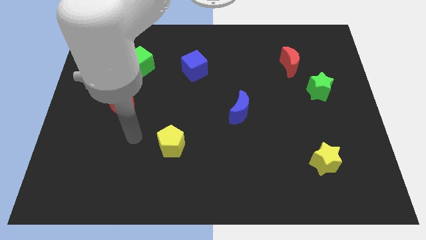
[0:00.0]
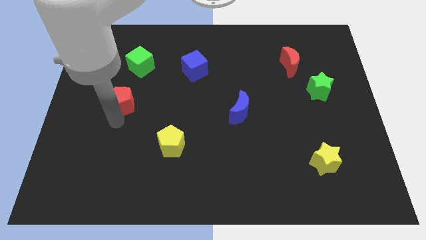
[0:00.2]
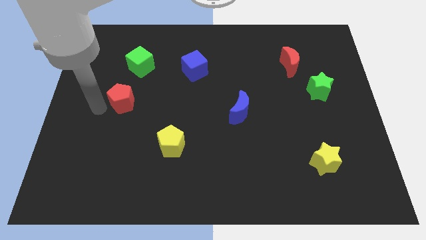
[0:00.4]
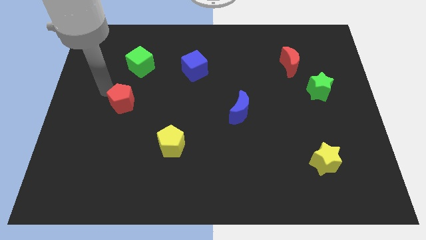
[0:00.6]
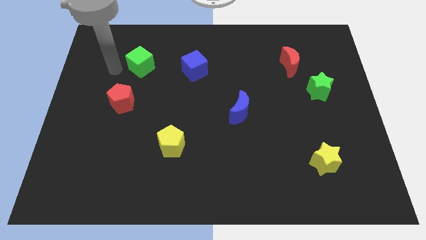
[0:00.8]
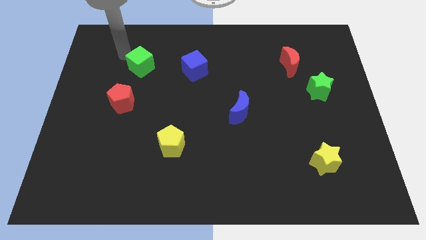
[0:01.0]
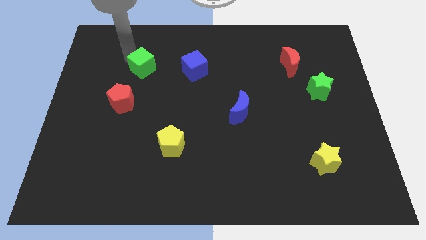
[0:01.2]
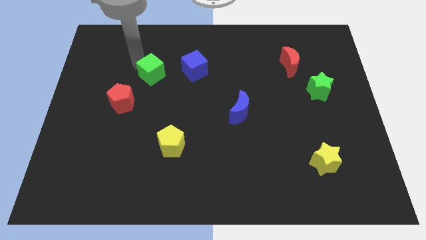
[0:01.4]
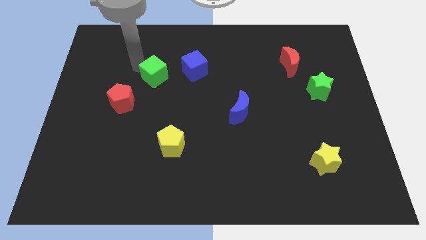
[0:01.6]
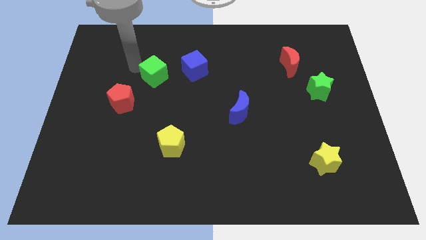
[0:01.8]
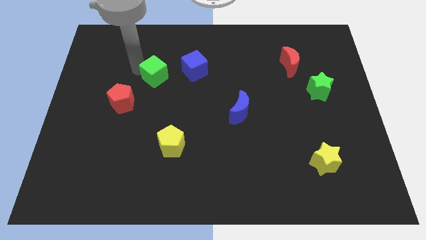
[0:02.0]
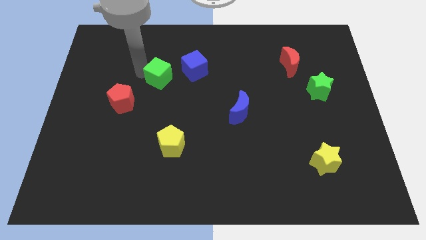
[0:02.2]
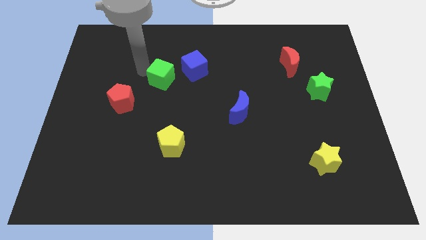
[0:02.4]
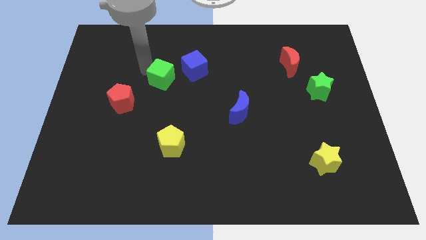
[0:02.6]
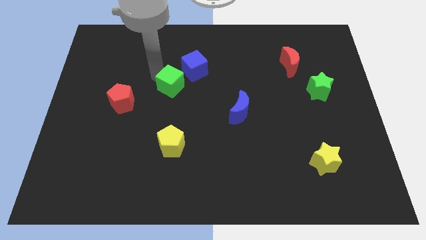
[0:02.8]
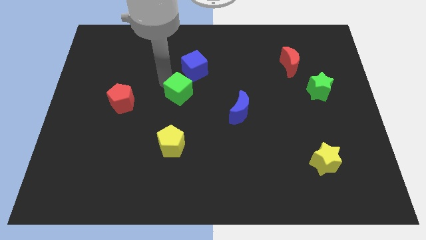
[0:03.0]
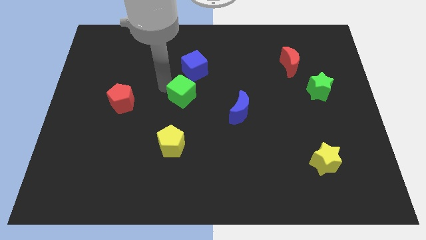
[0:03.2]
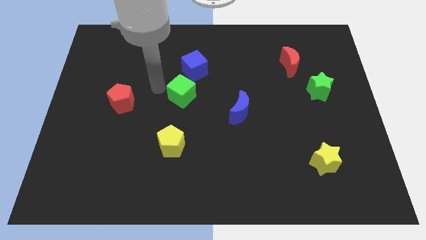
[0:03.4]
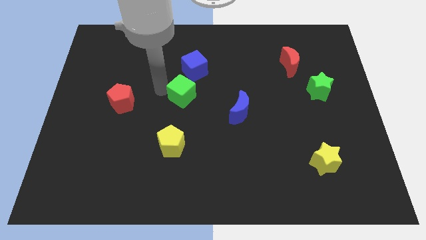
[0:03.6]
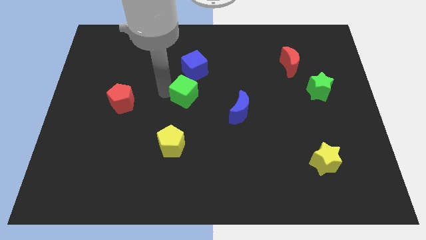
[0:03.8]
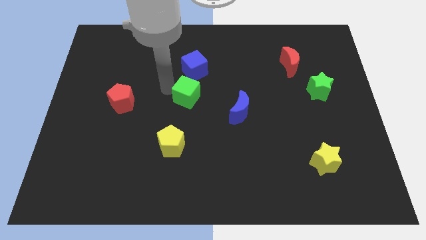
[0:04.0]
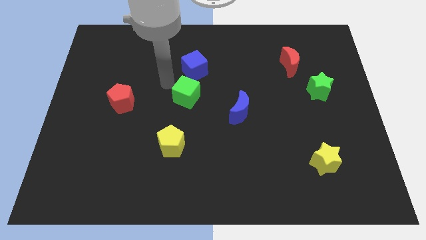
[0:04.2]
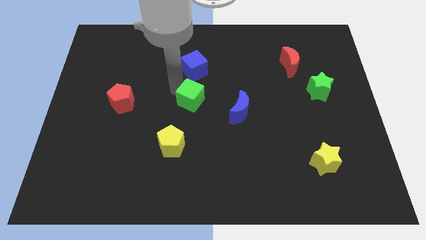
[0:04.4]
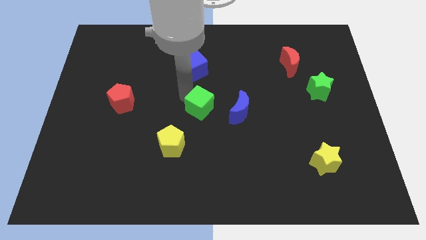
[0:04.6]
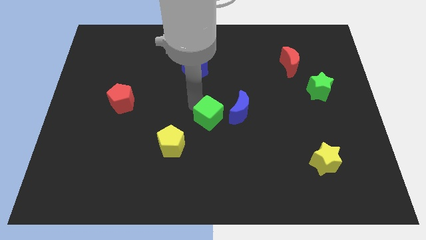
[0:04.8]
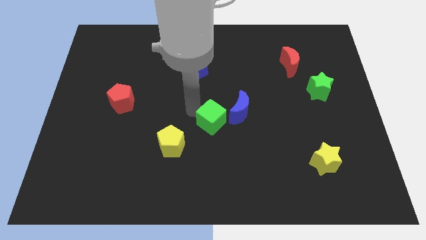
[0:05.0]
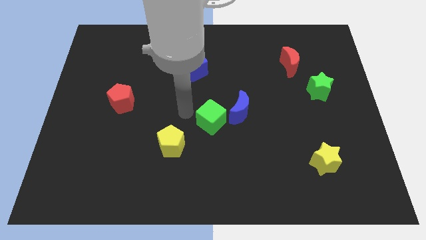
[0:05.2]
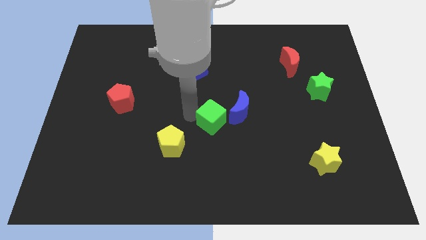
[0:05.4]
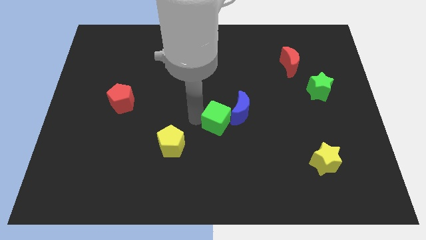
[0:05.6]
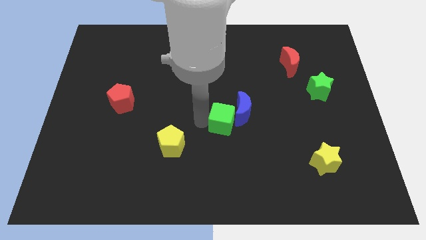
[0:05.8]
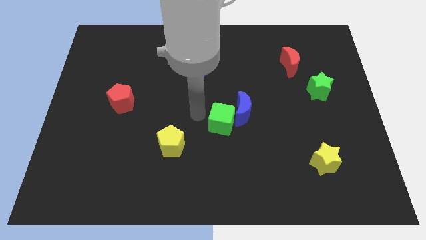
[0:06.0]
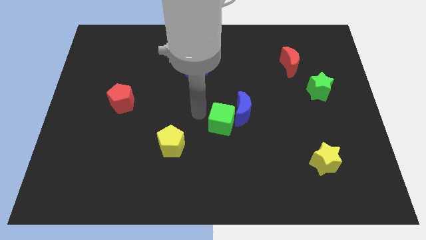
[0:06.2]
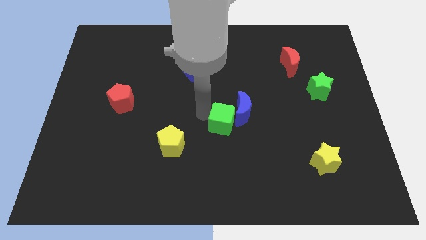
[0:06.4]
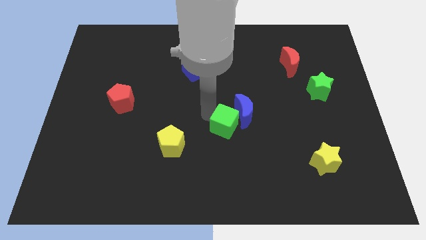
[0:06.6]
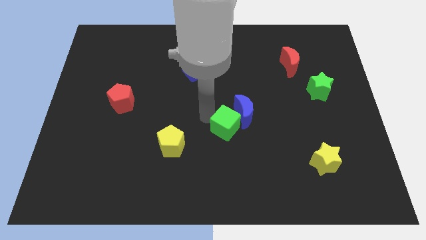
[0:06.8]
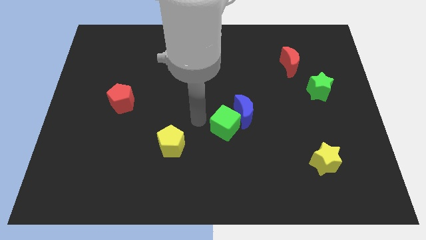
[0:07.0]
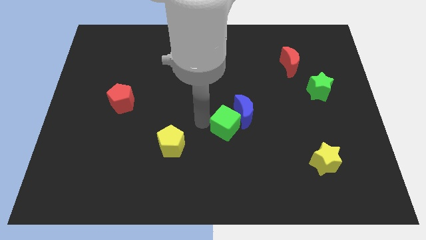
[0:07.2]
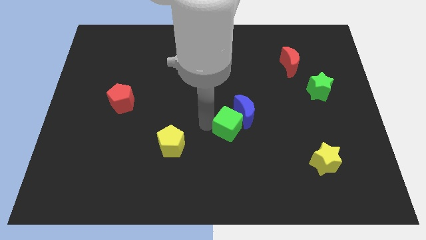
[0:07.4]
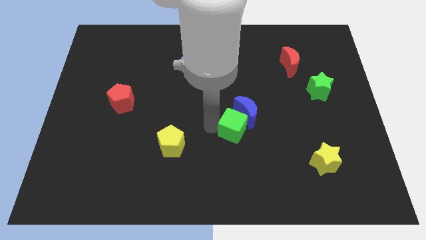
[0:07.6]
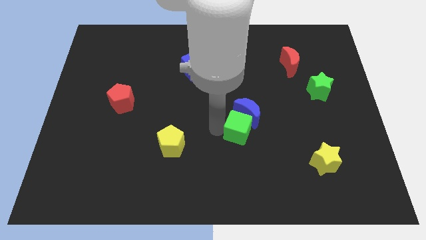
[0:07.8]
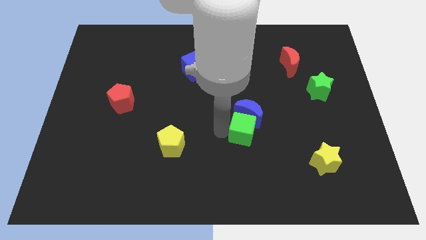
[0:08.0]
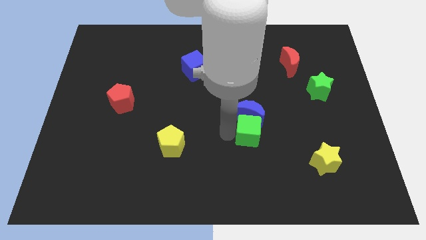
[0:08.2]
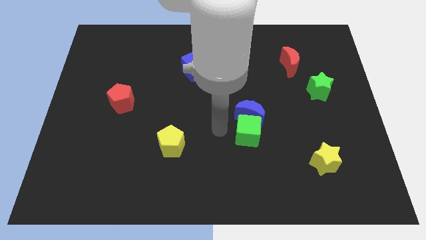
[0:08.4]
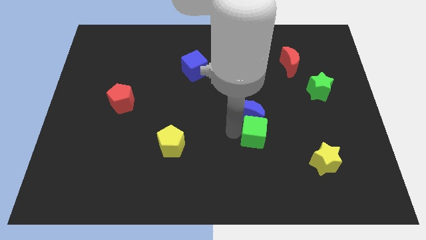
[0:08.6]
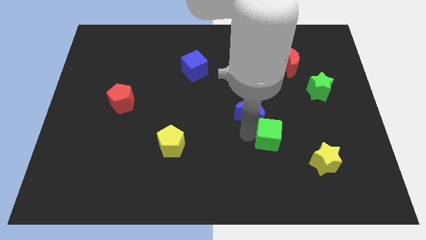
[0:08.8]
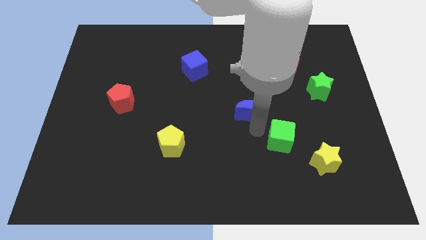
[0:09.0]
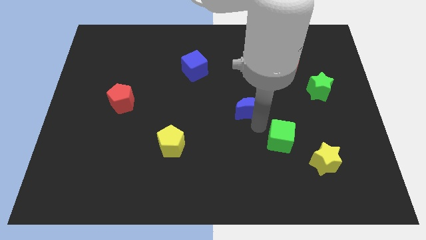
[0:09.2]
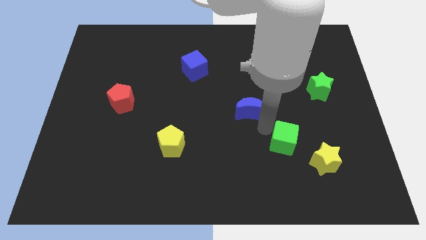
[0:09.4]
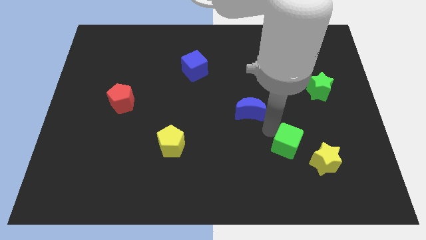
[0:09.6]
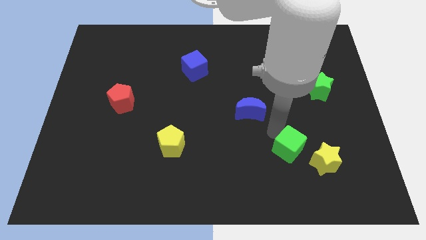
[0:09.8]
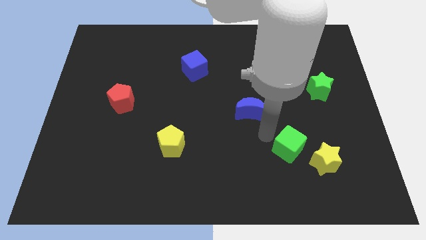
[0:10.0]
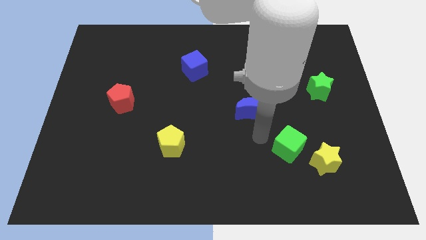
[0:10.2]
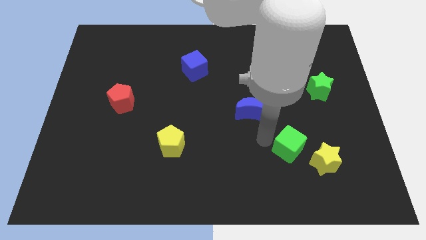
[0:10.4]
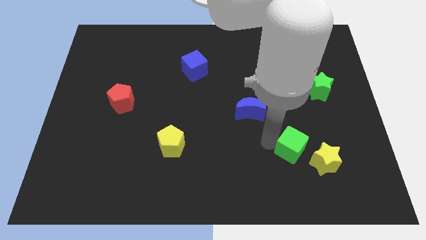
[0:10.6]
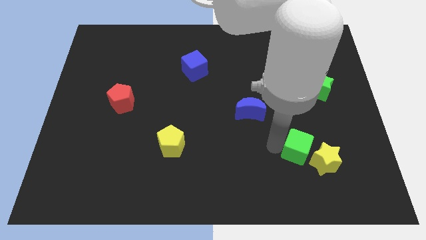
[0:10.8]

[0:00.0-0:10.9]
push the green cube to the yellow star

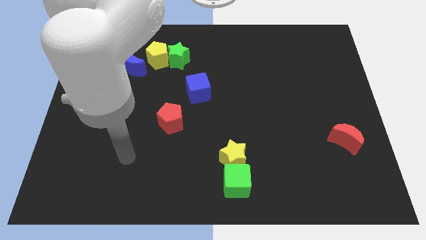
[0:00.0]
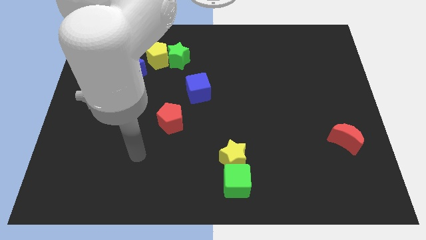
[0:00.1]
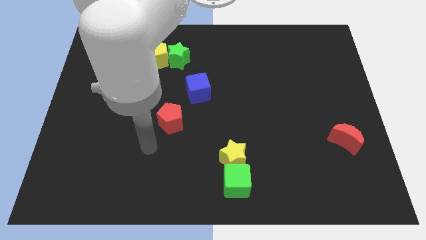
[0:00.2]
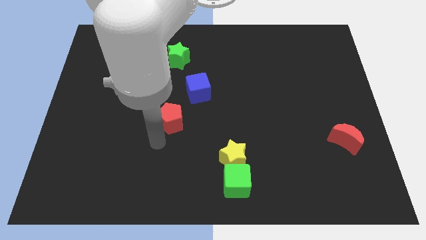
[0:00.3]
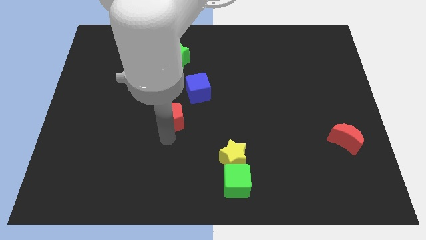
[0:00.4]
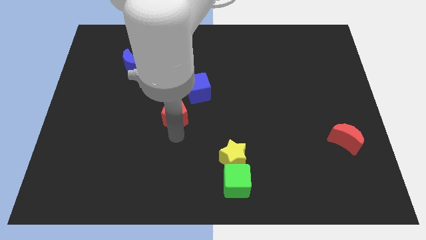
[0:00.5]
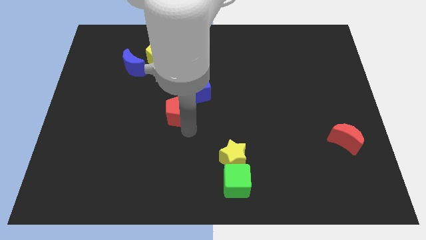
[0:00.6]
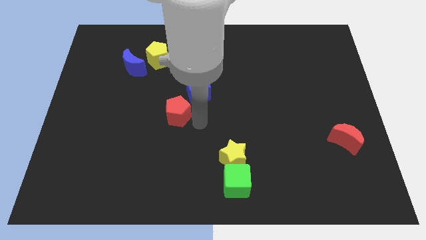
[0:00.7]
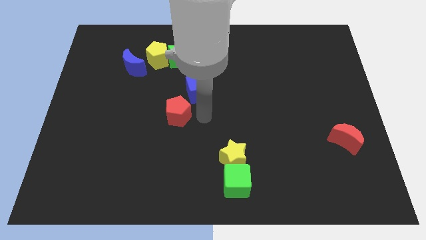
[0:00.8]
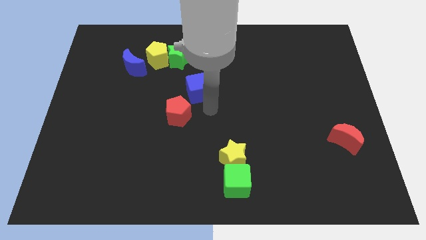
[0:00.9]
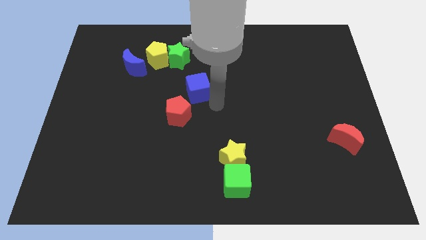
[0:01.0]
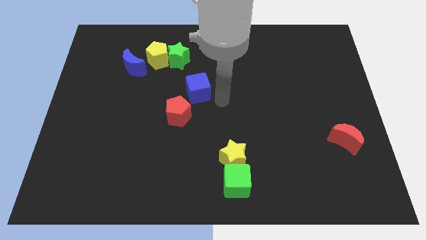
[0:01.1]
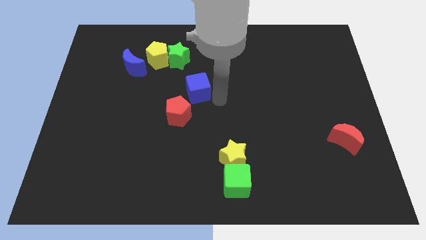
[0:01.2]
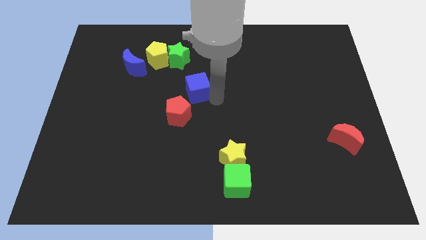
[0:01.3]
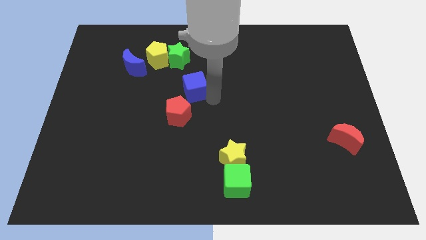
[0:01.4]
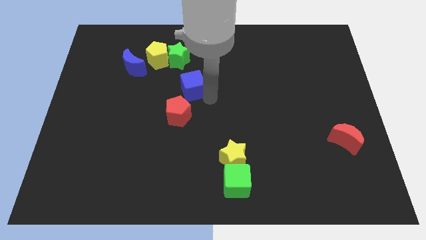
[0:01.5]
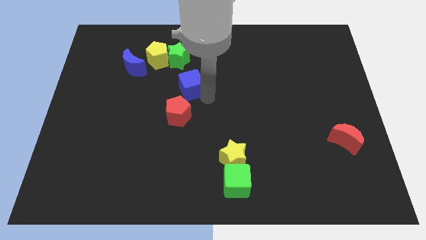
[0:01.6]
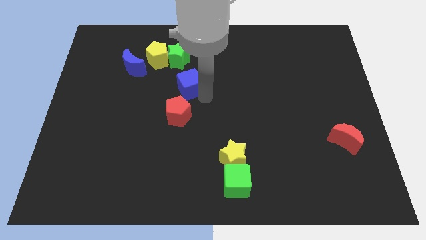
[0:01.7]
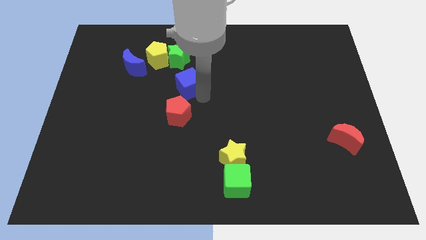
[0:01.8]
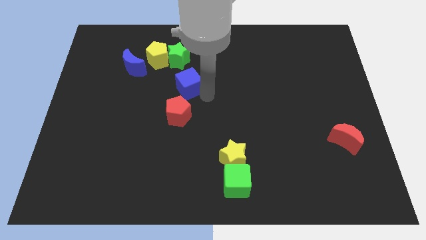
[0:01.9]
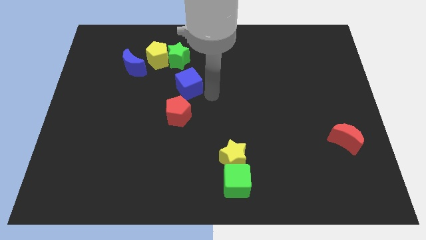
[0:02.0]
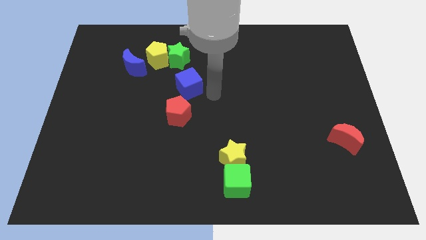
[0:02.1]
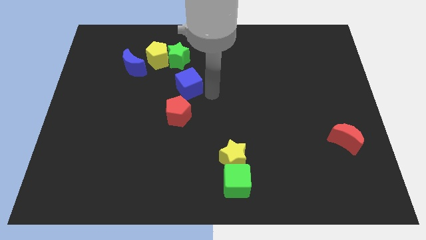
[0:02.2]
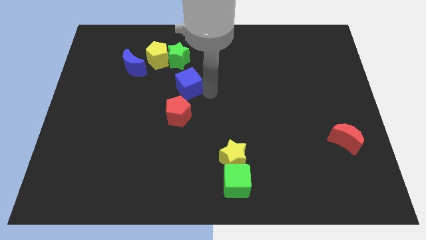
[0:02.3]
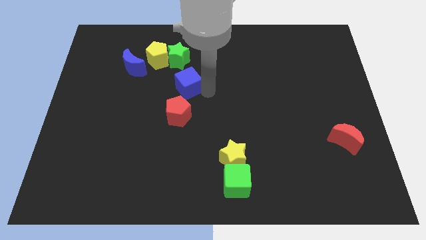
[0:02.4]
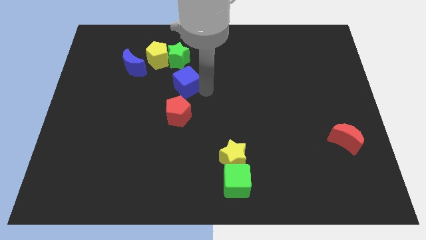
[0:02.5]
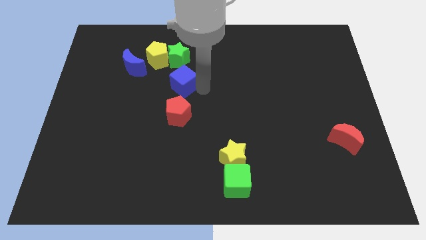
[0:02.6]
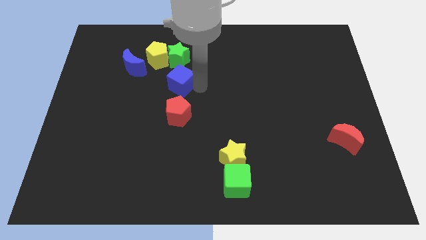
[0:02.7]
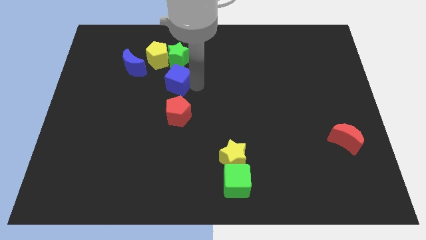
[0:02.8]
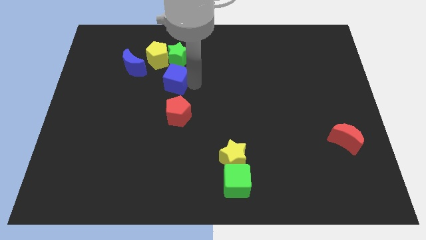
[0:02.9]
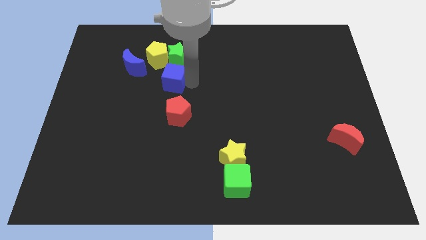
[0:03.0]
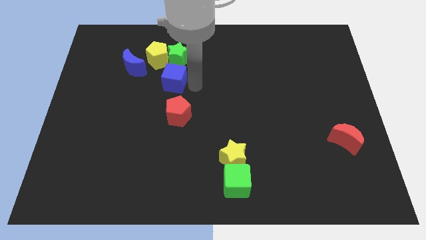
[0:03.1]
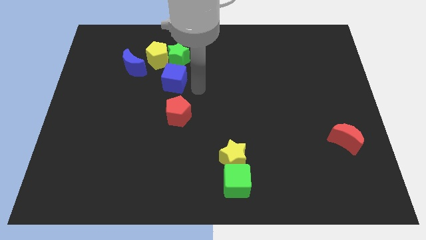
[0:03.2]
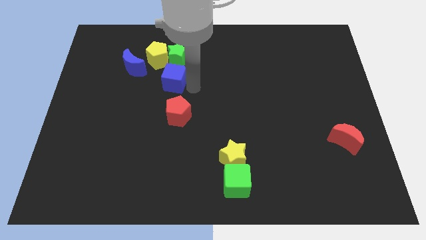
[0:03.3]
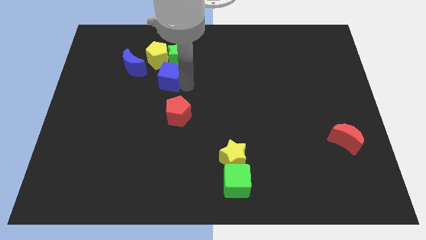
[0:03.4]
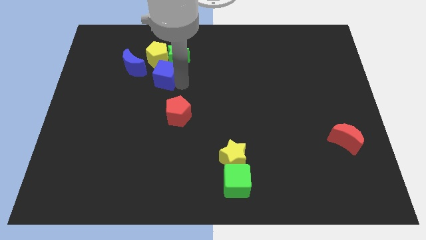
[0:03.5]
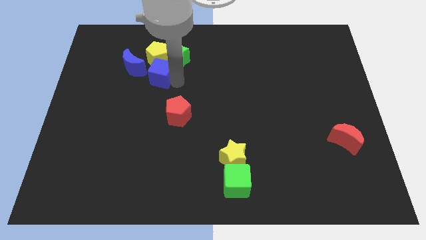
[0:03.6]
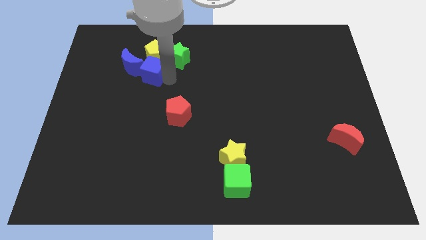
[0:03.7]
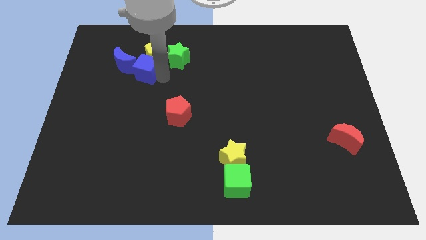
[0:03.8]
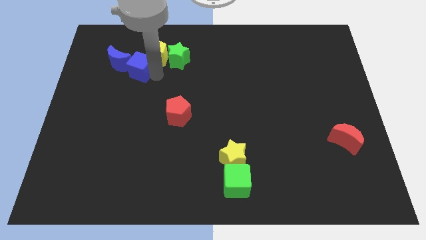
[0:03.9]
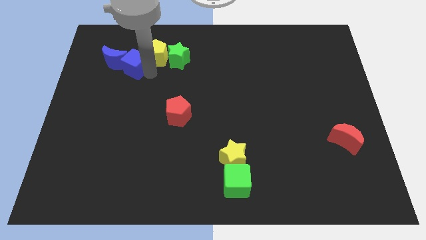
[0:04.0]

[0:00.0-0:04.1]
push the blue cube towards the blue moon
